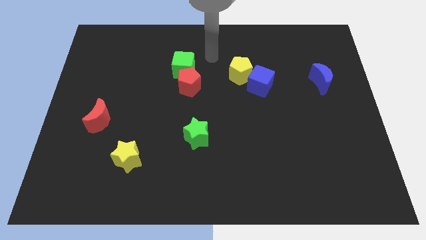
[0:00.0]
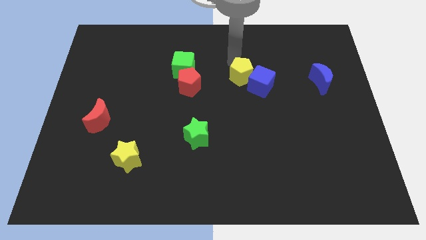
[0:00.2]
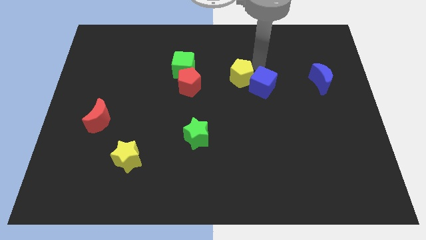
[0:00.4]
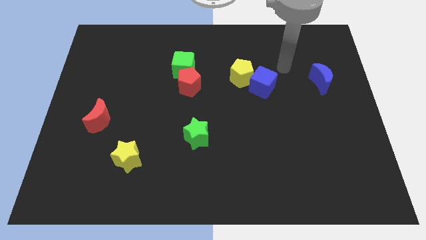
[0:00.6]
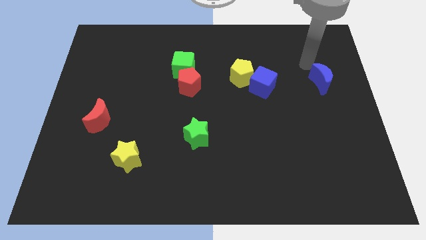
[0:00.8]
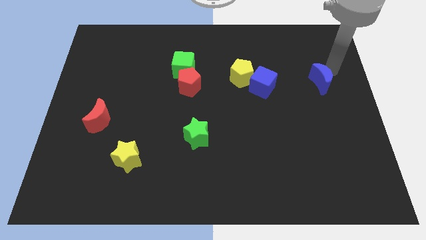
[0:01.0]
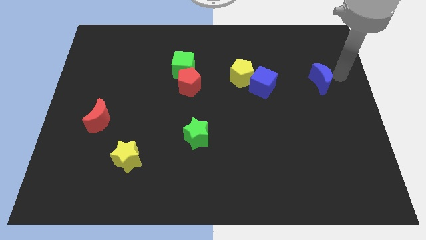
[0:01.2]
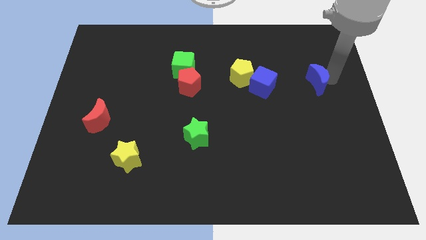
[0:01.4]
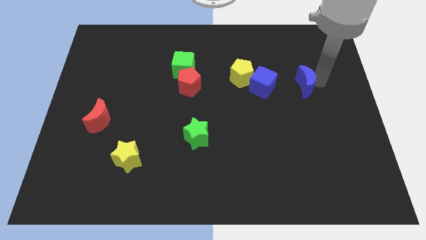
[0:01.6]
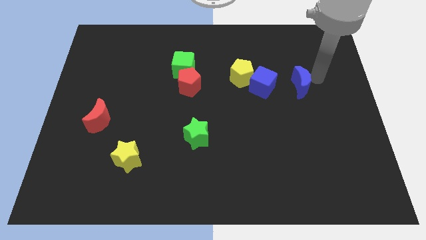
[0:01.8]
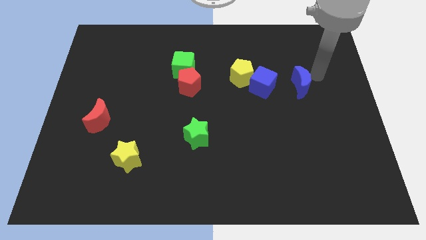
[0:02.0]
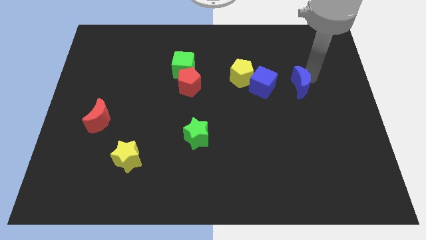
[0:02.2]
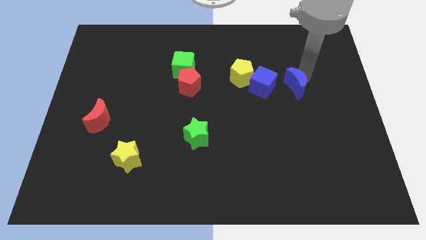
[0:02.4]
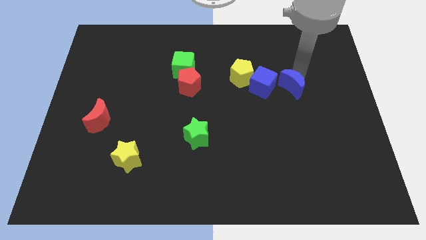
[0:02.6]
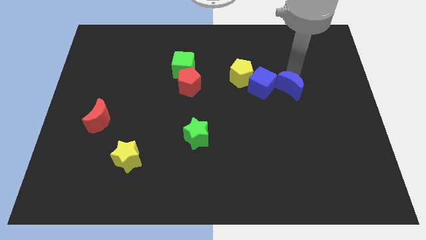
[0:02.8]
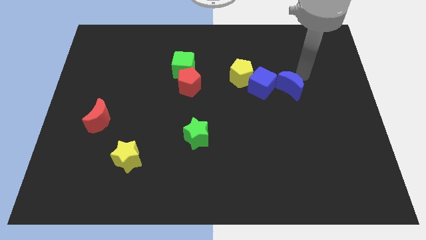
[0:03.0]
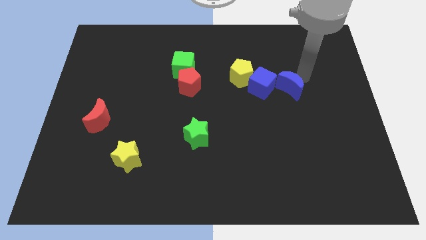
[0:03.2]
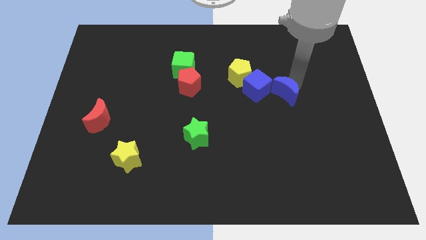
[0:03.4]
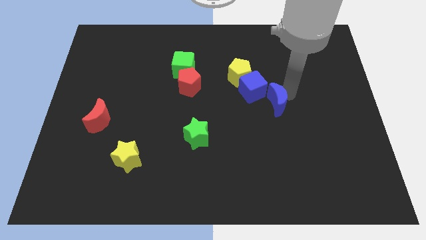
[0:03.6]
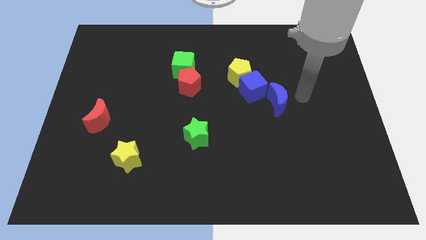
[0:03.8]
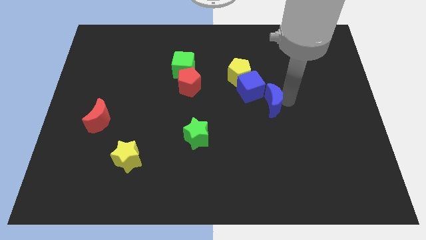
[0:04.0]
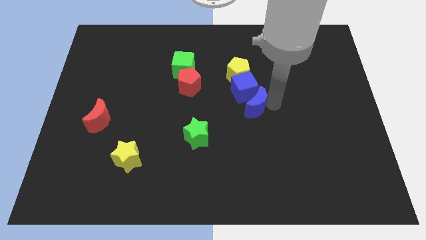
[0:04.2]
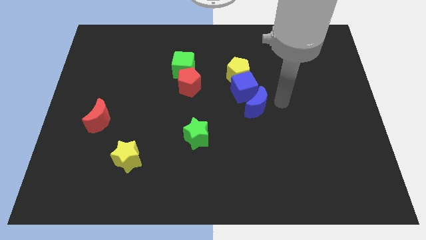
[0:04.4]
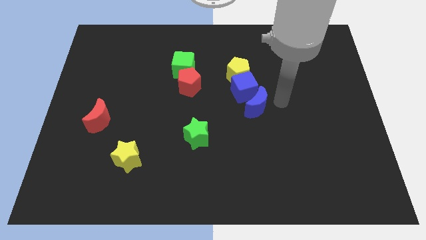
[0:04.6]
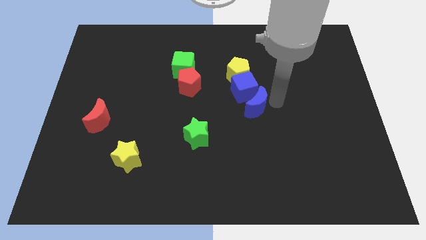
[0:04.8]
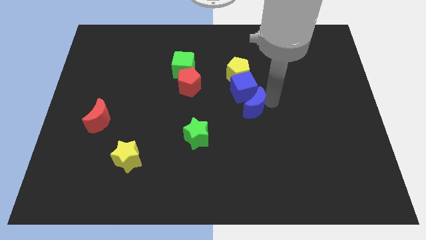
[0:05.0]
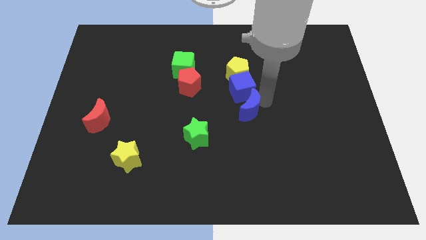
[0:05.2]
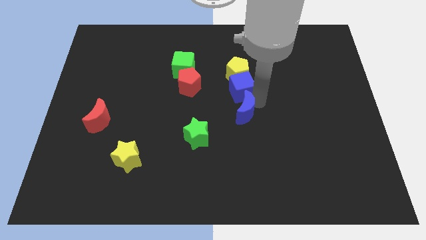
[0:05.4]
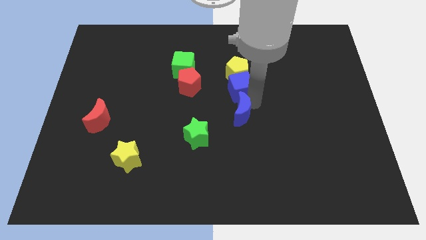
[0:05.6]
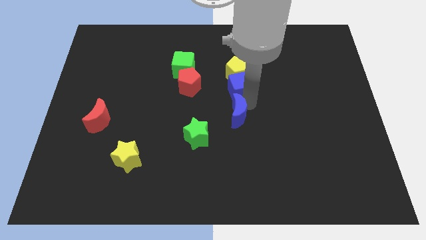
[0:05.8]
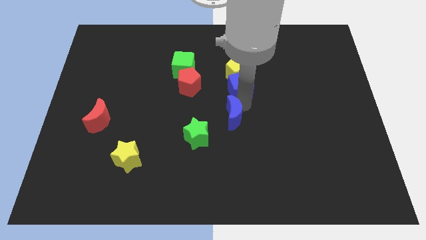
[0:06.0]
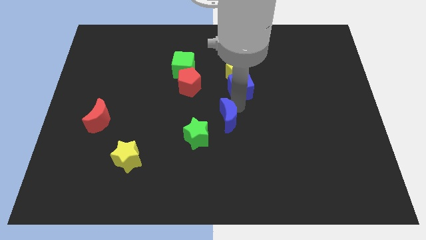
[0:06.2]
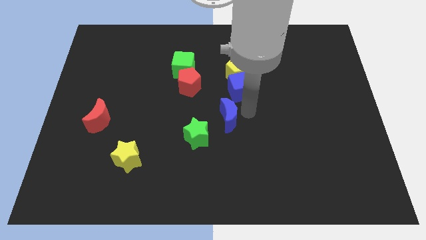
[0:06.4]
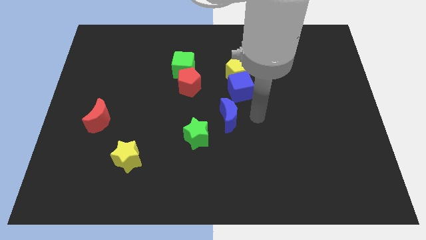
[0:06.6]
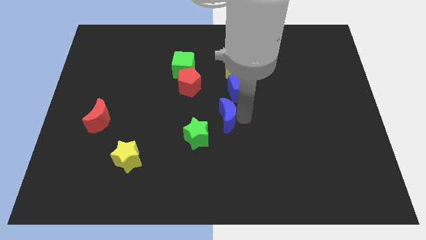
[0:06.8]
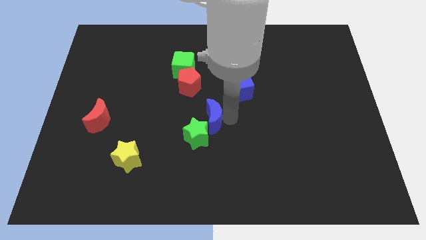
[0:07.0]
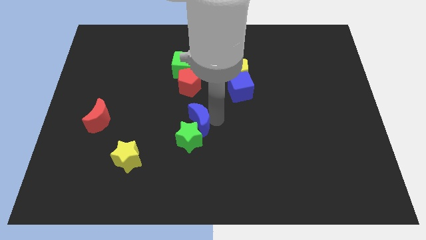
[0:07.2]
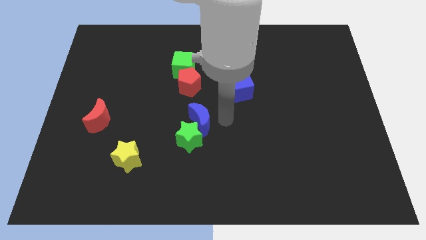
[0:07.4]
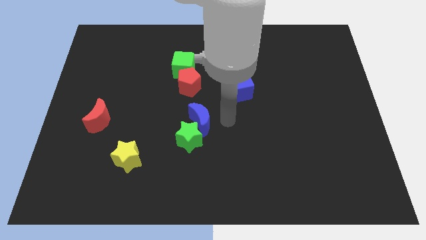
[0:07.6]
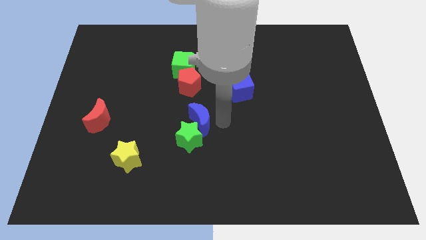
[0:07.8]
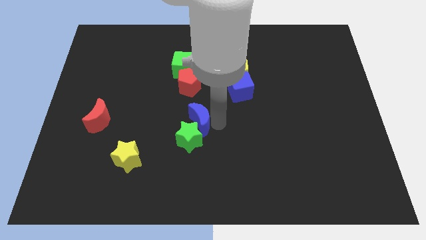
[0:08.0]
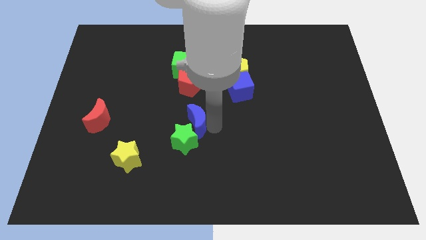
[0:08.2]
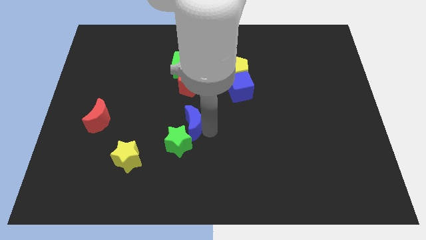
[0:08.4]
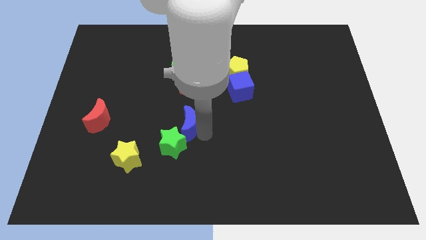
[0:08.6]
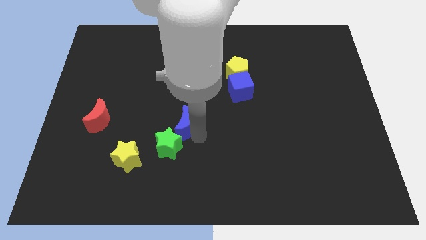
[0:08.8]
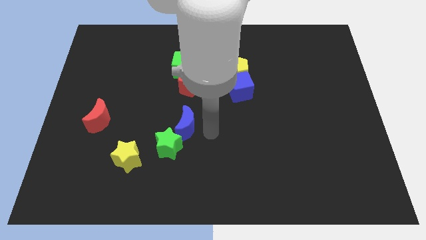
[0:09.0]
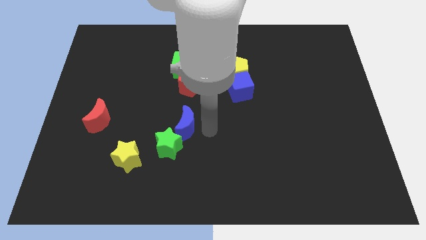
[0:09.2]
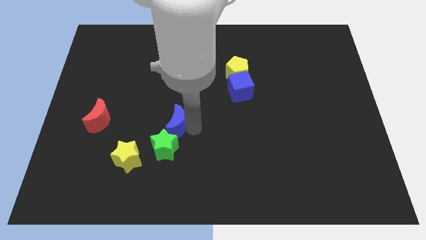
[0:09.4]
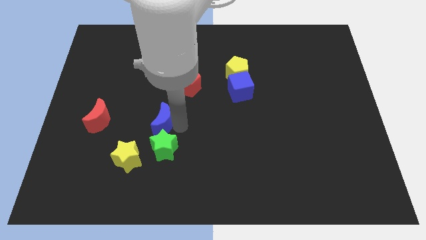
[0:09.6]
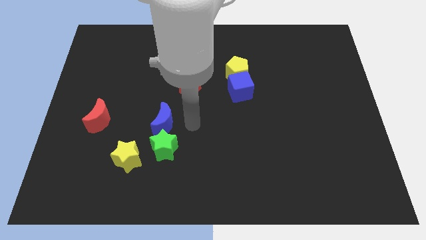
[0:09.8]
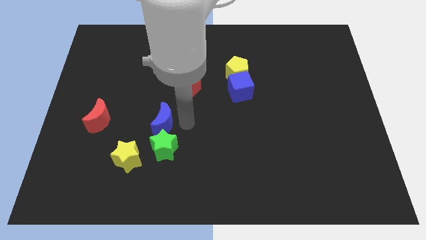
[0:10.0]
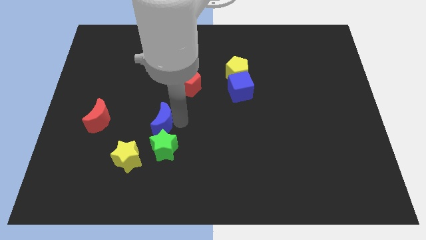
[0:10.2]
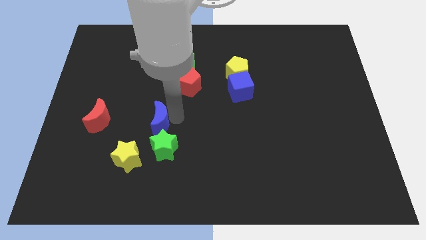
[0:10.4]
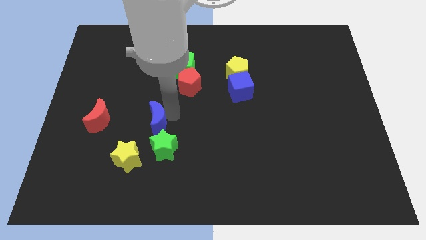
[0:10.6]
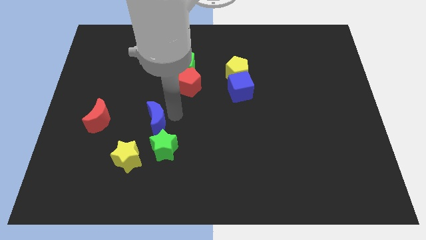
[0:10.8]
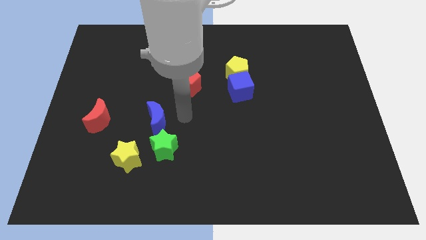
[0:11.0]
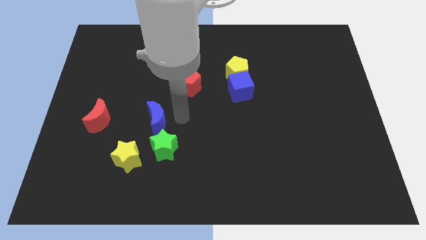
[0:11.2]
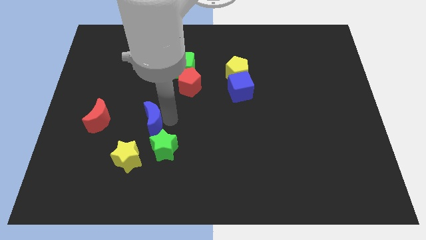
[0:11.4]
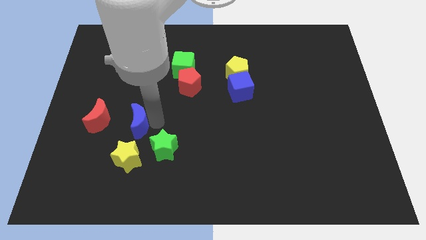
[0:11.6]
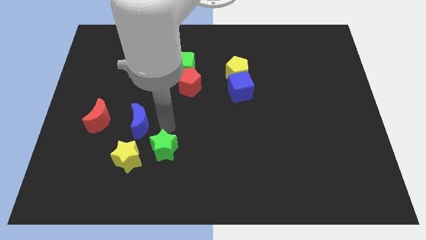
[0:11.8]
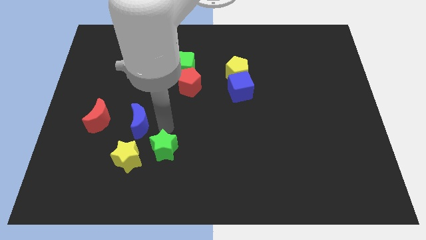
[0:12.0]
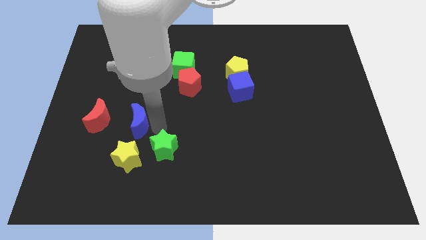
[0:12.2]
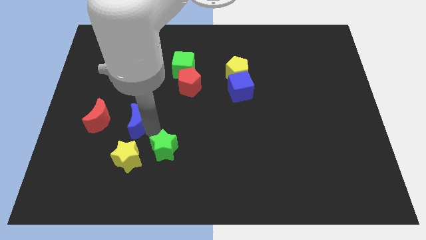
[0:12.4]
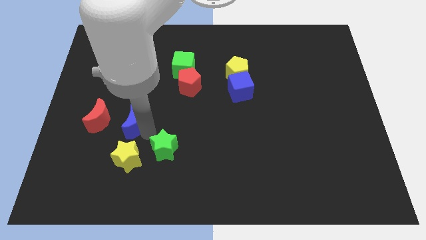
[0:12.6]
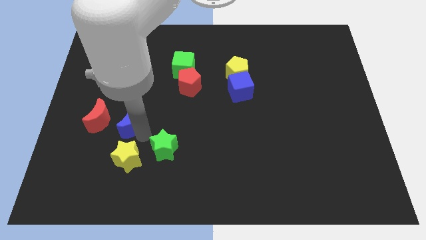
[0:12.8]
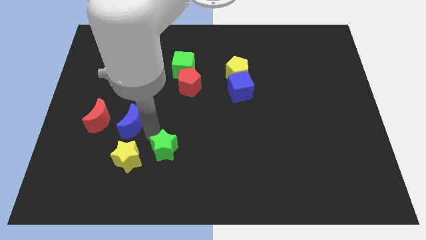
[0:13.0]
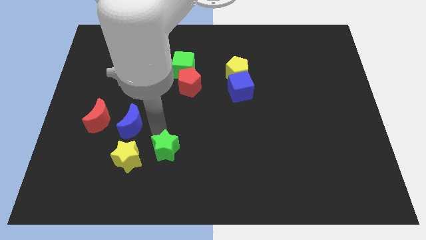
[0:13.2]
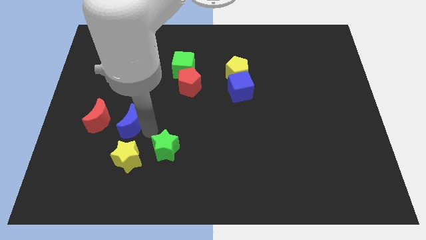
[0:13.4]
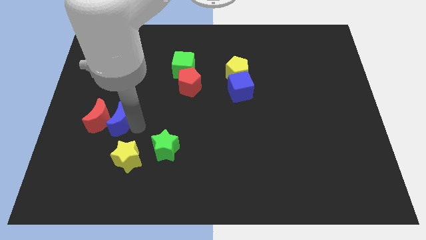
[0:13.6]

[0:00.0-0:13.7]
push the blue moon towards the red moon

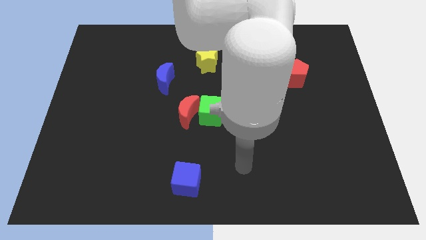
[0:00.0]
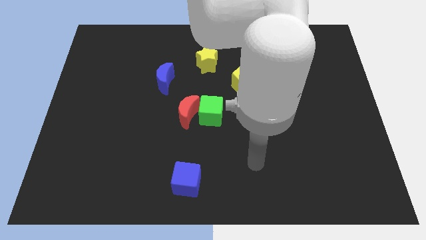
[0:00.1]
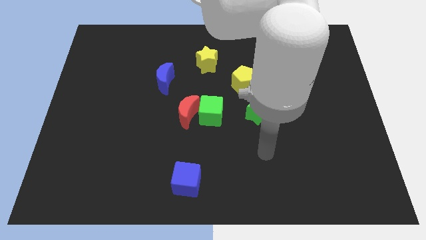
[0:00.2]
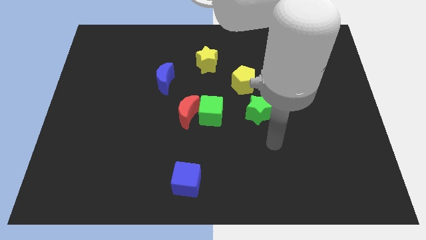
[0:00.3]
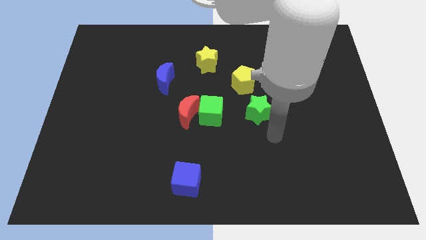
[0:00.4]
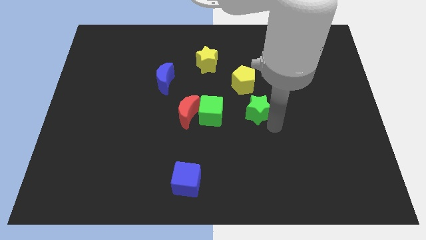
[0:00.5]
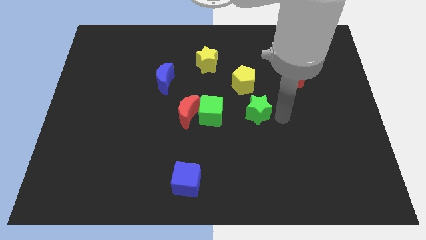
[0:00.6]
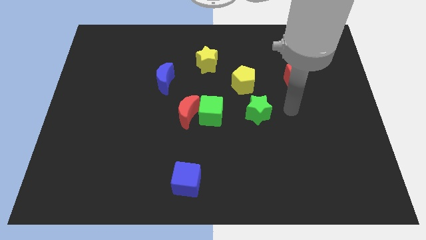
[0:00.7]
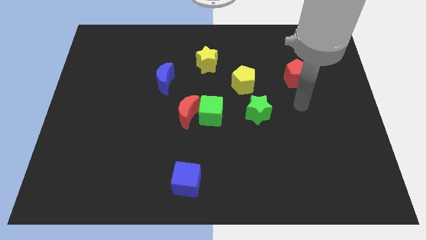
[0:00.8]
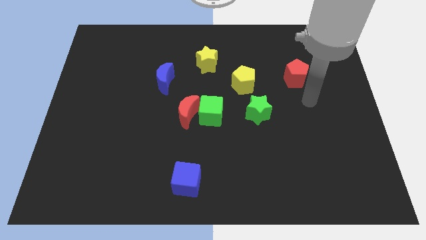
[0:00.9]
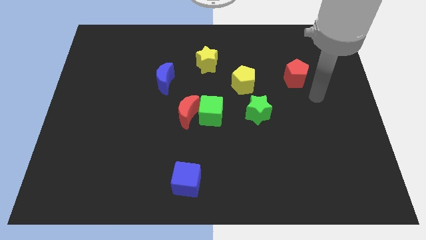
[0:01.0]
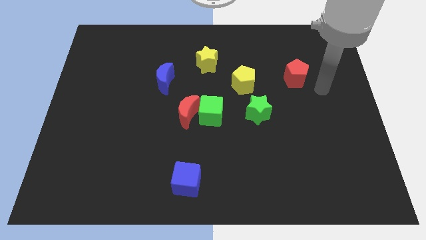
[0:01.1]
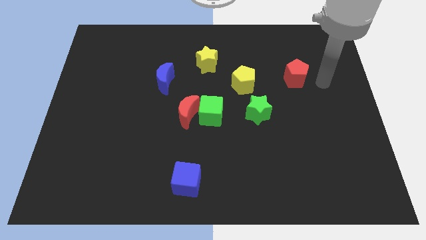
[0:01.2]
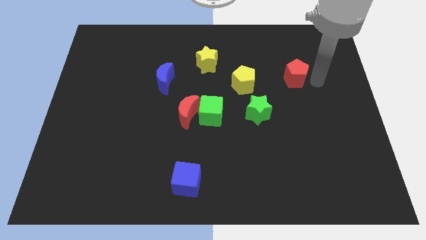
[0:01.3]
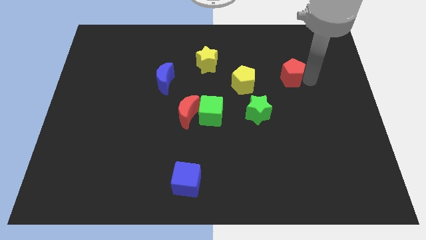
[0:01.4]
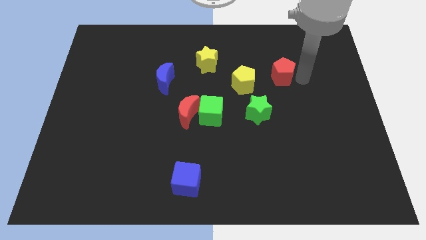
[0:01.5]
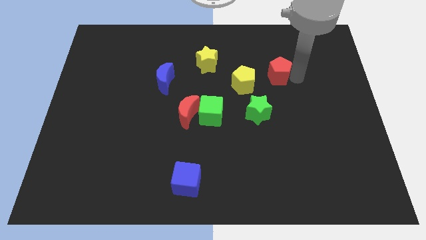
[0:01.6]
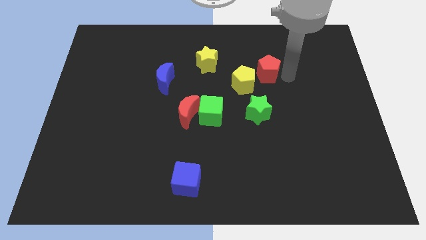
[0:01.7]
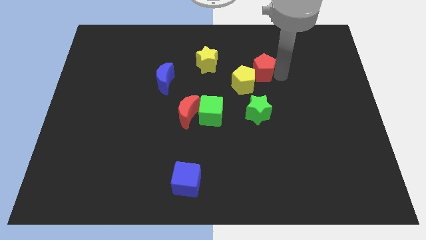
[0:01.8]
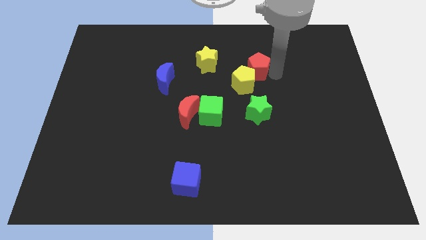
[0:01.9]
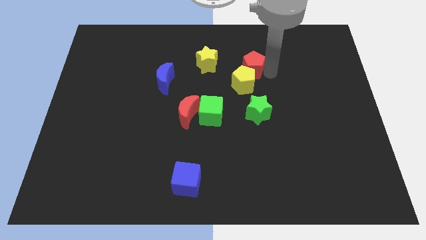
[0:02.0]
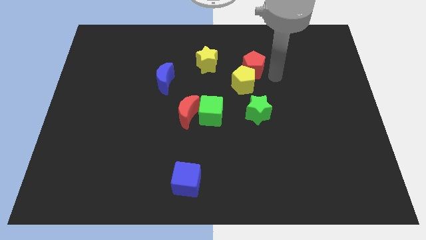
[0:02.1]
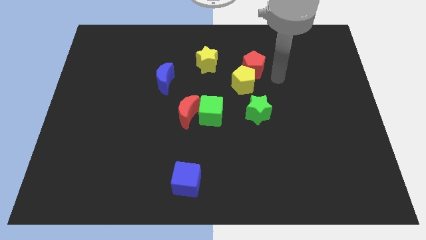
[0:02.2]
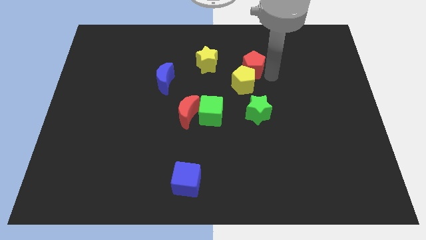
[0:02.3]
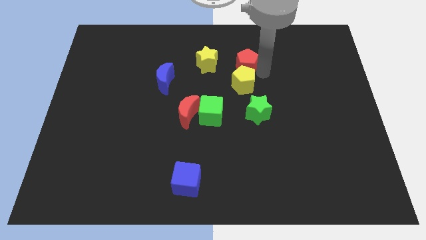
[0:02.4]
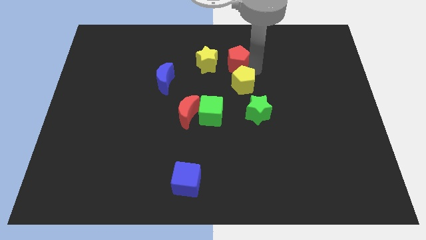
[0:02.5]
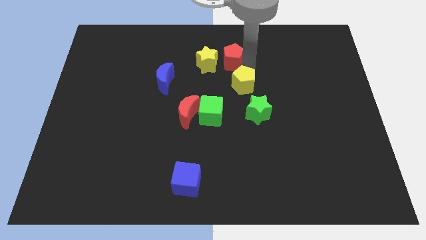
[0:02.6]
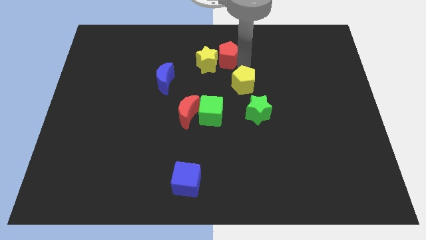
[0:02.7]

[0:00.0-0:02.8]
put the red pentagon to the yellow star
